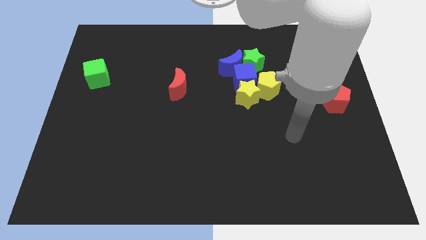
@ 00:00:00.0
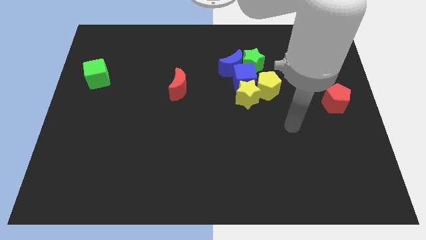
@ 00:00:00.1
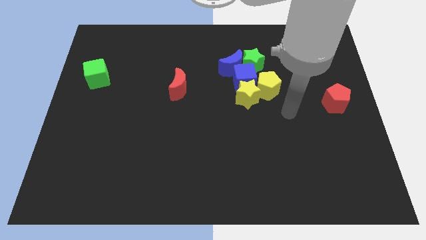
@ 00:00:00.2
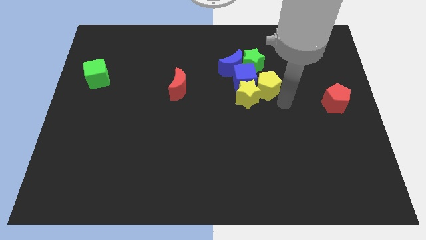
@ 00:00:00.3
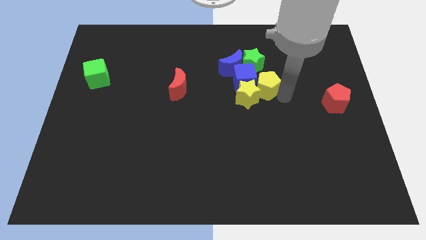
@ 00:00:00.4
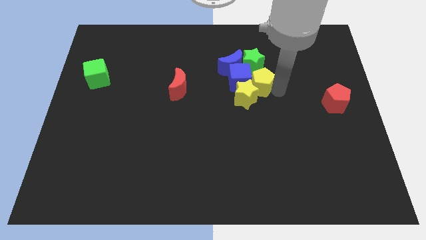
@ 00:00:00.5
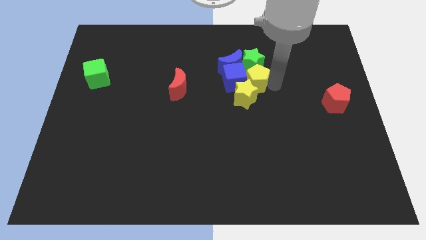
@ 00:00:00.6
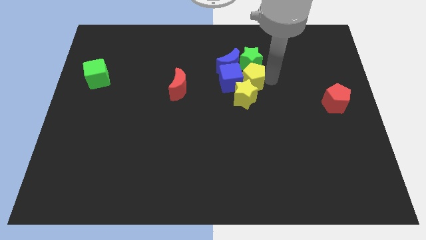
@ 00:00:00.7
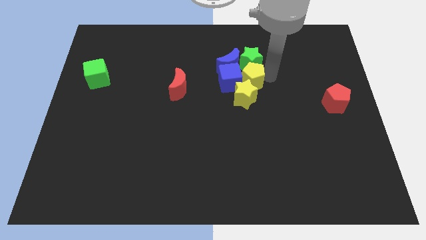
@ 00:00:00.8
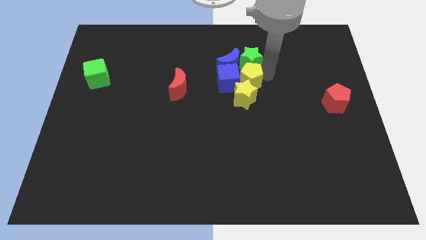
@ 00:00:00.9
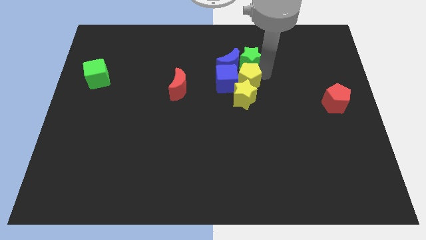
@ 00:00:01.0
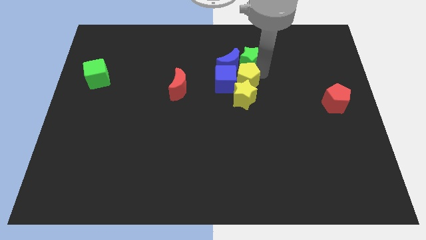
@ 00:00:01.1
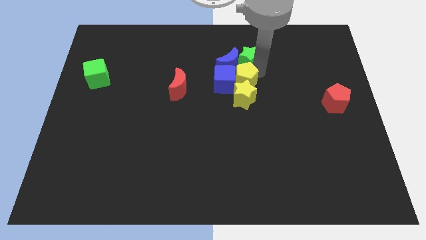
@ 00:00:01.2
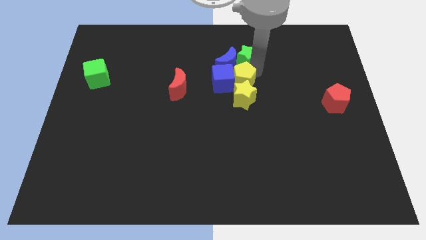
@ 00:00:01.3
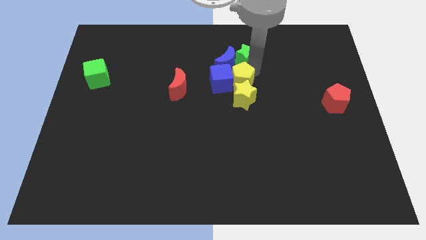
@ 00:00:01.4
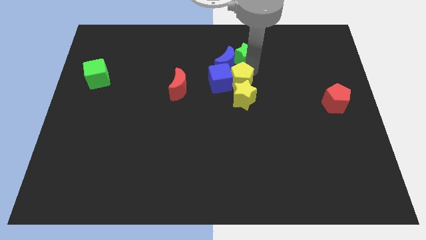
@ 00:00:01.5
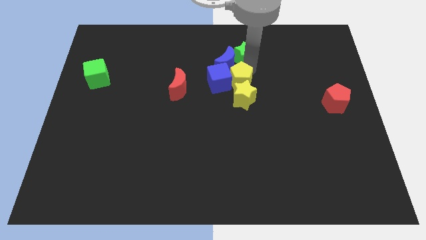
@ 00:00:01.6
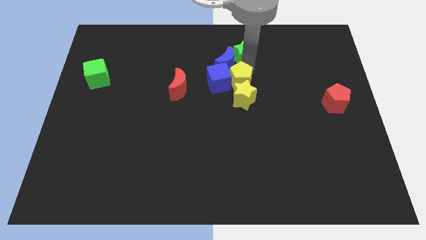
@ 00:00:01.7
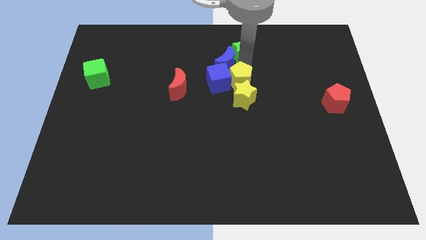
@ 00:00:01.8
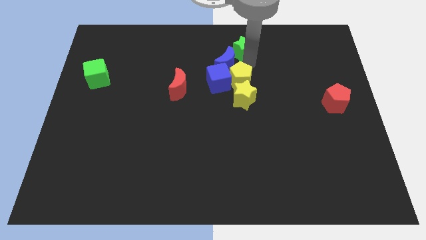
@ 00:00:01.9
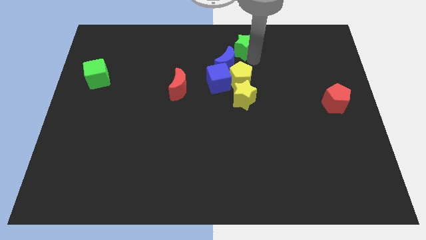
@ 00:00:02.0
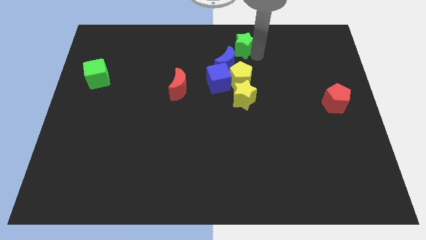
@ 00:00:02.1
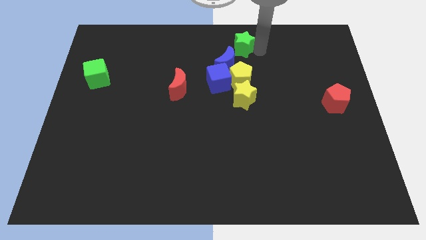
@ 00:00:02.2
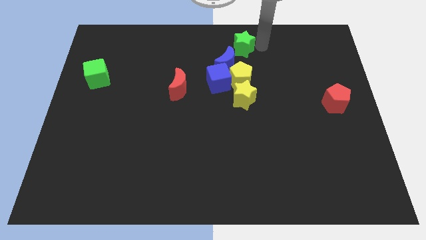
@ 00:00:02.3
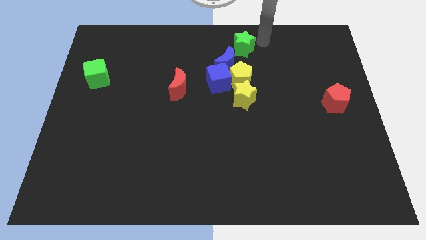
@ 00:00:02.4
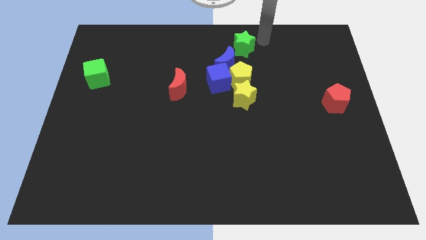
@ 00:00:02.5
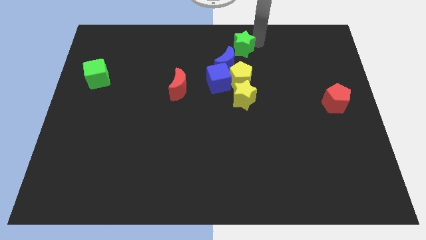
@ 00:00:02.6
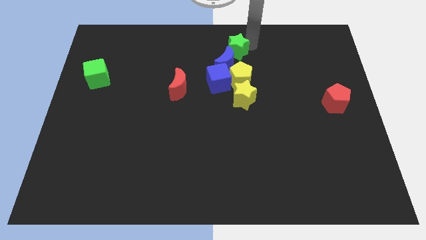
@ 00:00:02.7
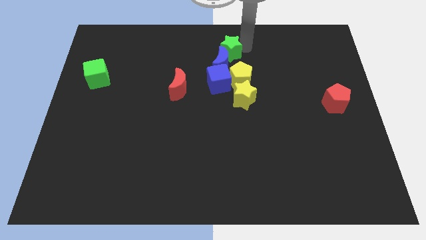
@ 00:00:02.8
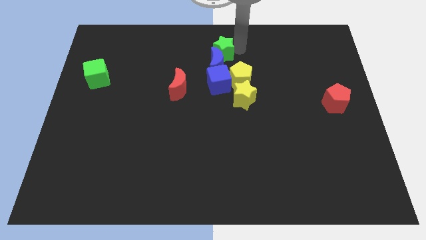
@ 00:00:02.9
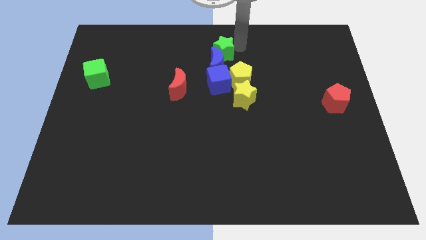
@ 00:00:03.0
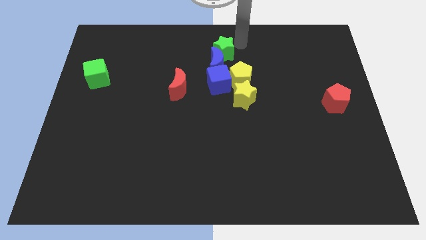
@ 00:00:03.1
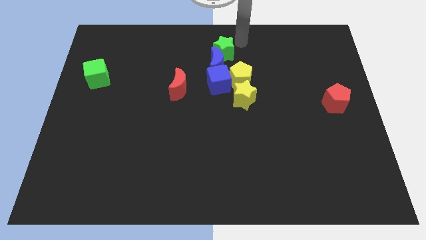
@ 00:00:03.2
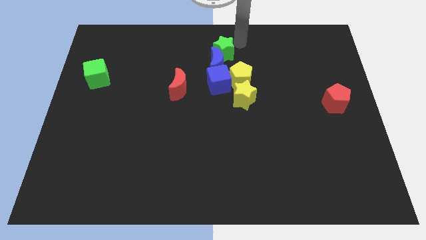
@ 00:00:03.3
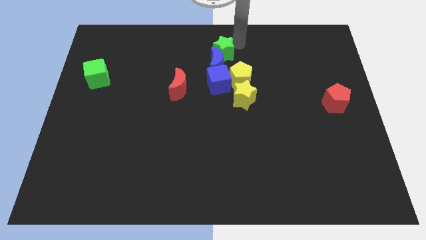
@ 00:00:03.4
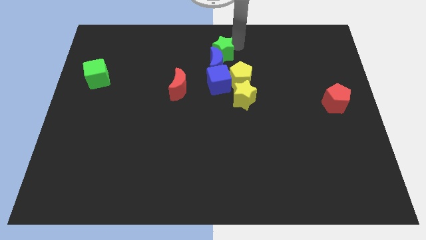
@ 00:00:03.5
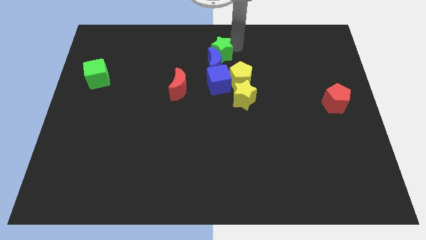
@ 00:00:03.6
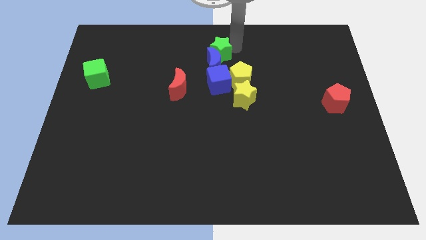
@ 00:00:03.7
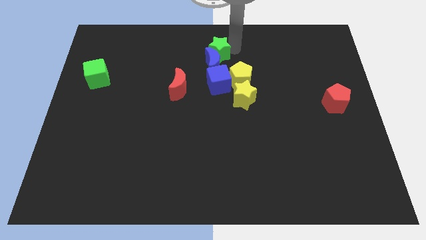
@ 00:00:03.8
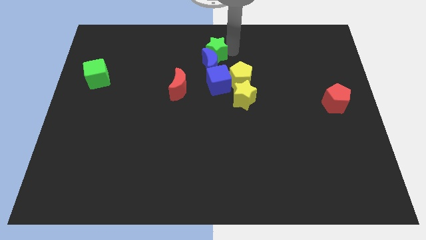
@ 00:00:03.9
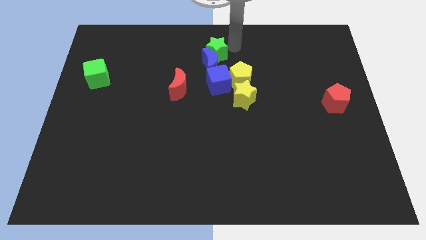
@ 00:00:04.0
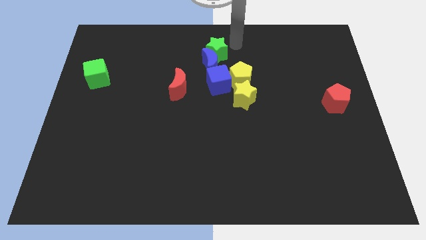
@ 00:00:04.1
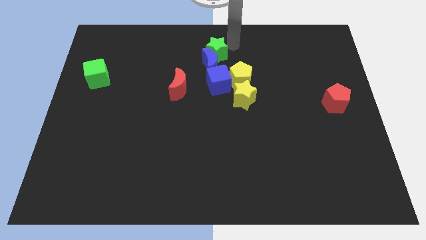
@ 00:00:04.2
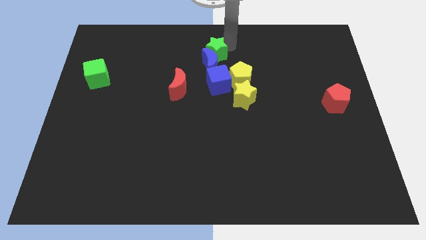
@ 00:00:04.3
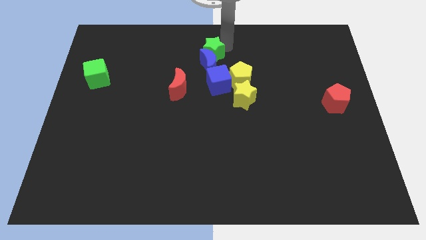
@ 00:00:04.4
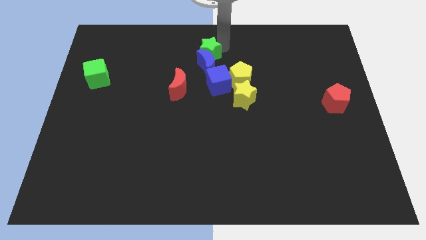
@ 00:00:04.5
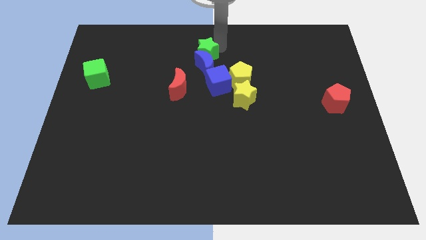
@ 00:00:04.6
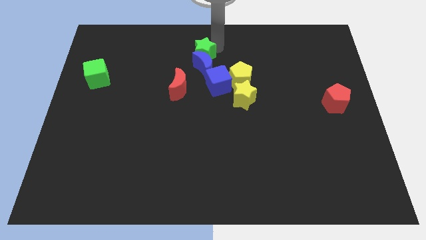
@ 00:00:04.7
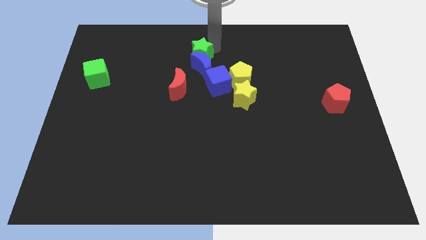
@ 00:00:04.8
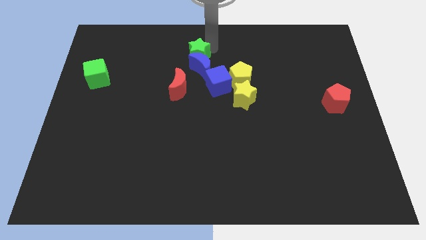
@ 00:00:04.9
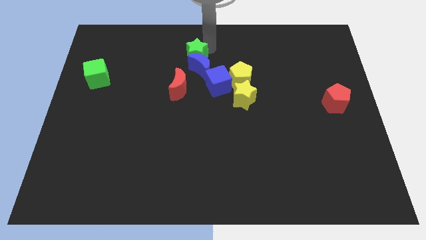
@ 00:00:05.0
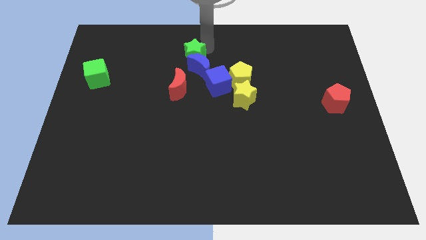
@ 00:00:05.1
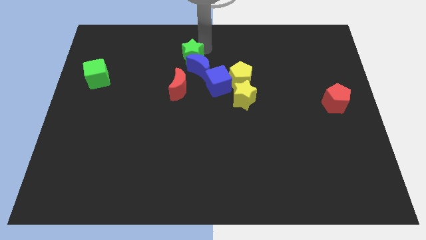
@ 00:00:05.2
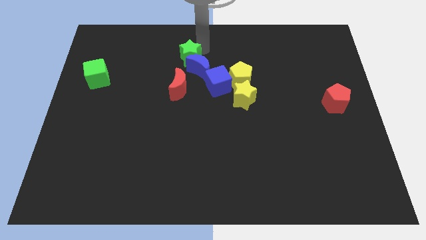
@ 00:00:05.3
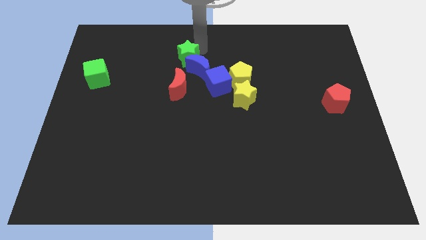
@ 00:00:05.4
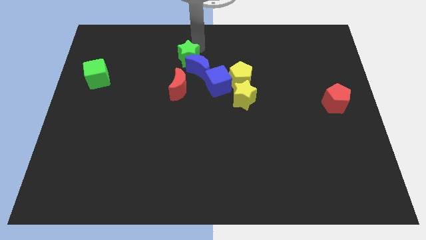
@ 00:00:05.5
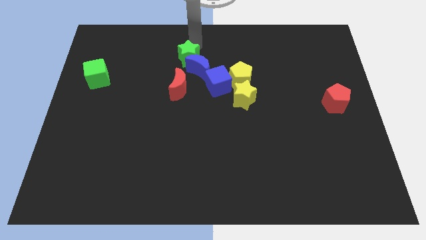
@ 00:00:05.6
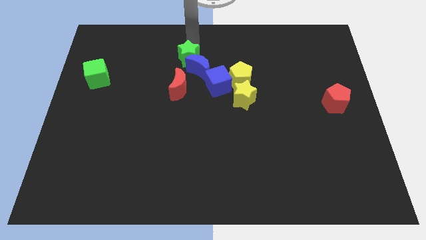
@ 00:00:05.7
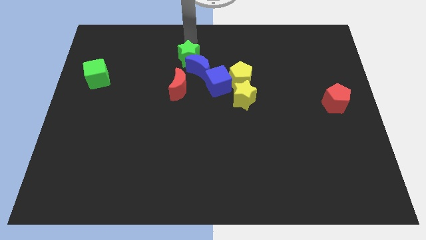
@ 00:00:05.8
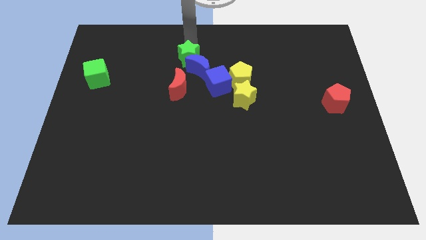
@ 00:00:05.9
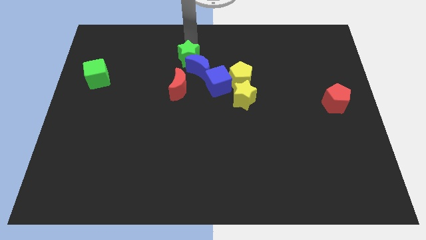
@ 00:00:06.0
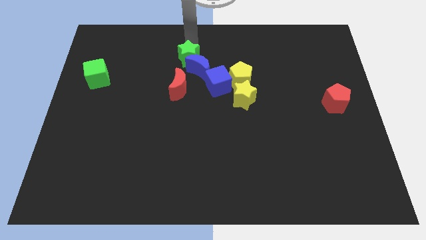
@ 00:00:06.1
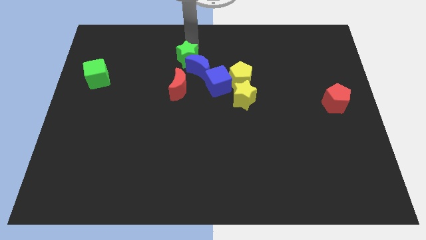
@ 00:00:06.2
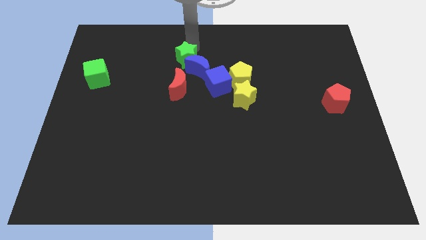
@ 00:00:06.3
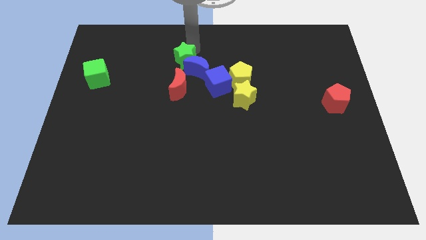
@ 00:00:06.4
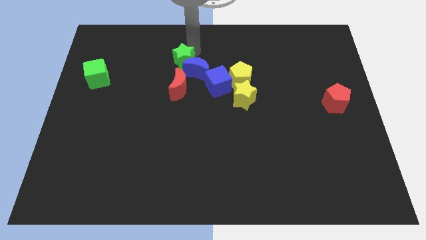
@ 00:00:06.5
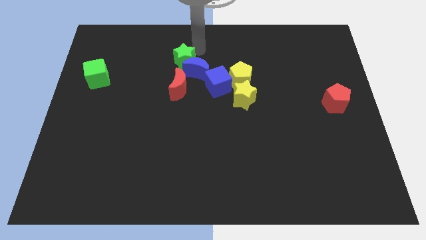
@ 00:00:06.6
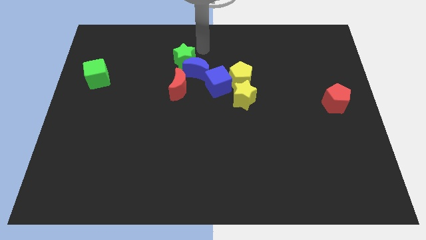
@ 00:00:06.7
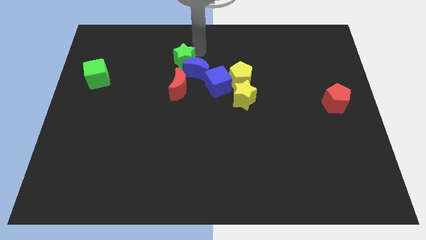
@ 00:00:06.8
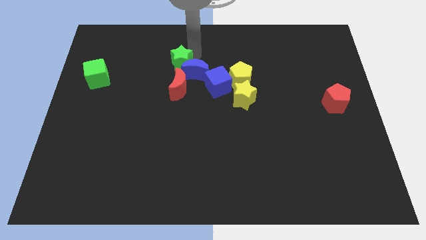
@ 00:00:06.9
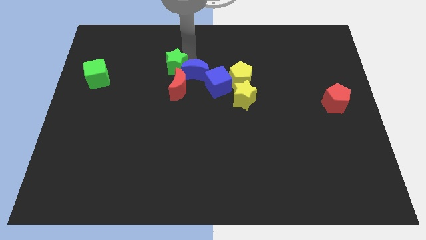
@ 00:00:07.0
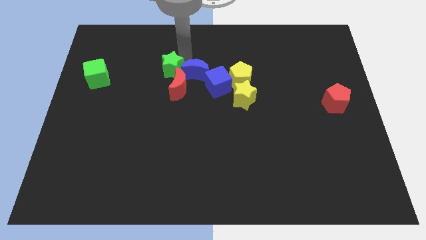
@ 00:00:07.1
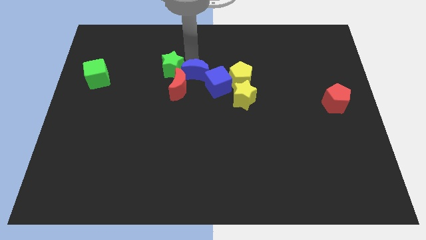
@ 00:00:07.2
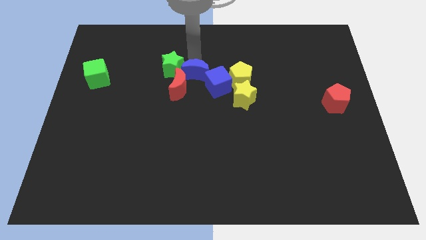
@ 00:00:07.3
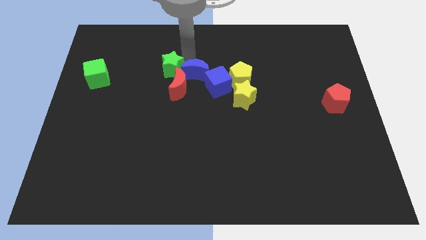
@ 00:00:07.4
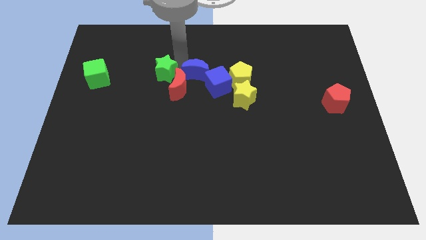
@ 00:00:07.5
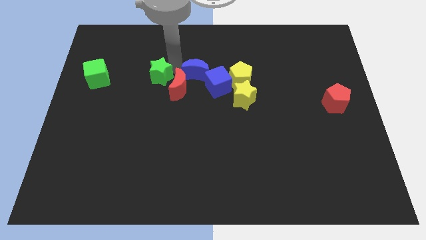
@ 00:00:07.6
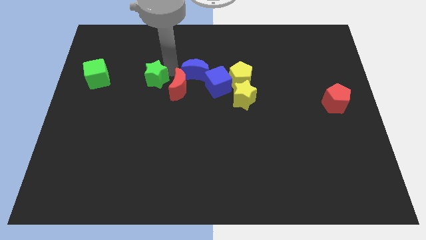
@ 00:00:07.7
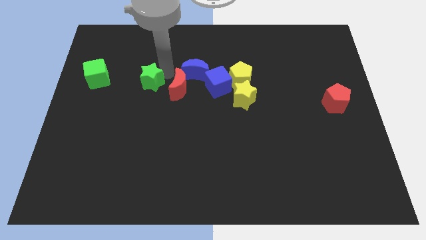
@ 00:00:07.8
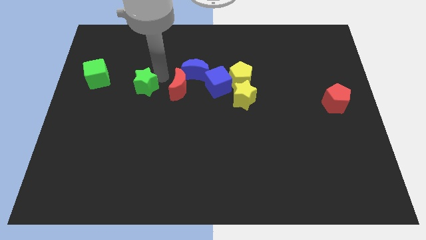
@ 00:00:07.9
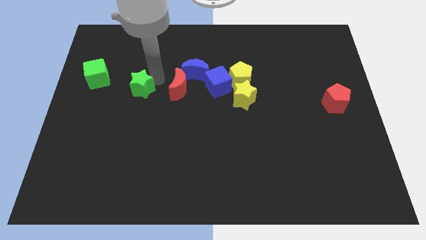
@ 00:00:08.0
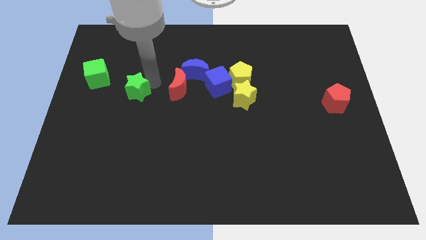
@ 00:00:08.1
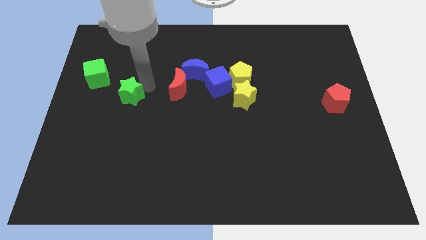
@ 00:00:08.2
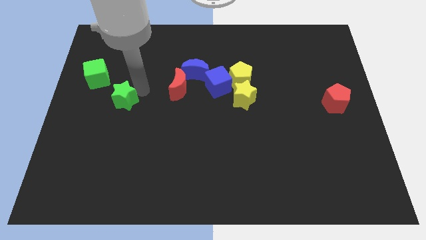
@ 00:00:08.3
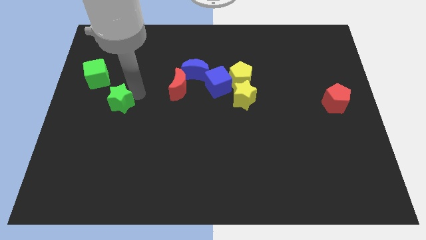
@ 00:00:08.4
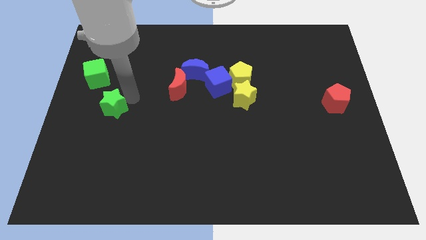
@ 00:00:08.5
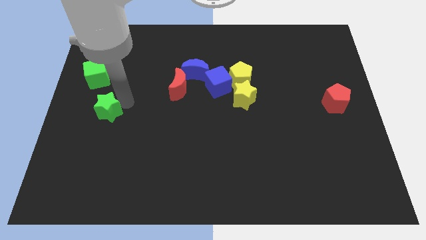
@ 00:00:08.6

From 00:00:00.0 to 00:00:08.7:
push the green star to the bottom of the green cube
